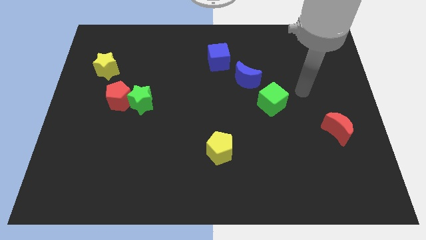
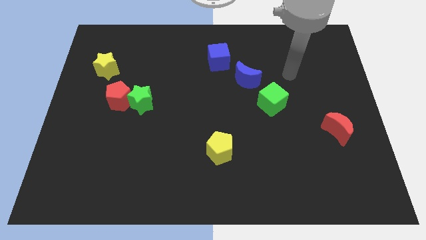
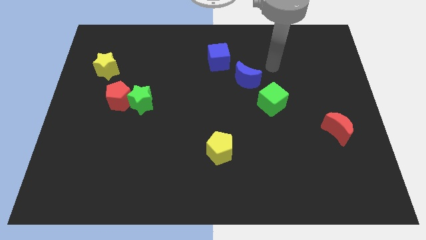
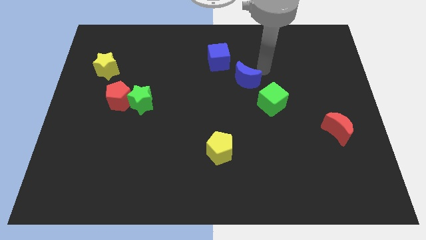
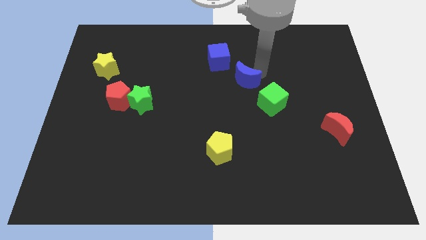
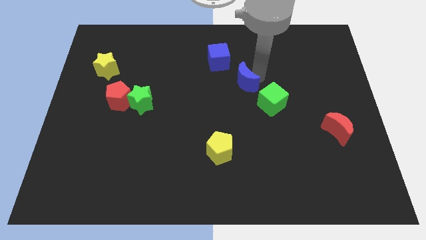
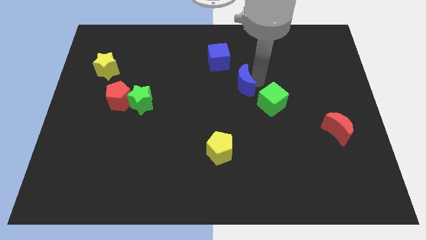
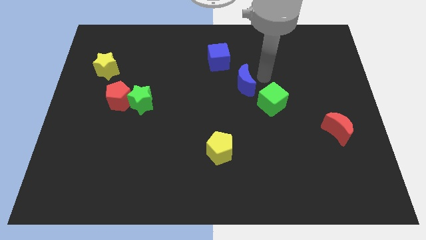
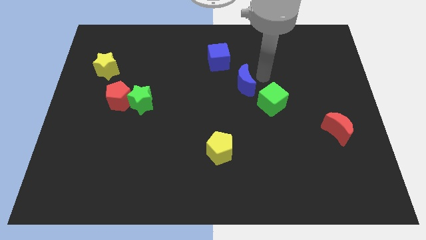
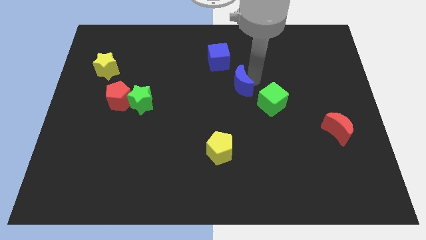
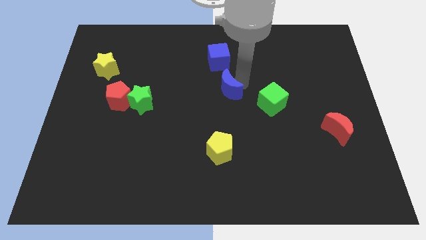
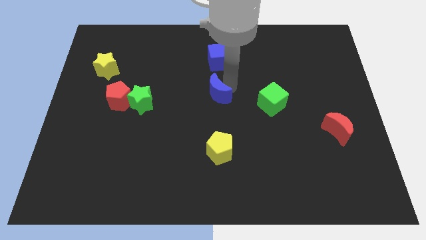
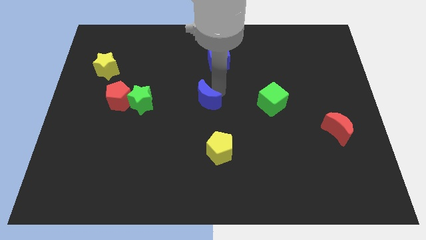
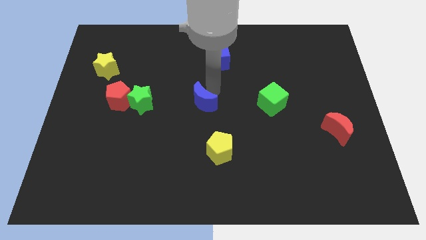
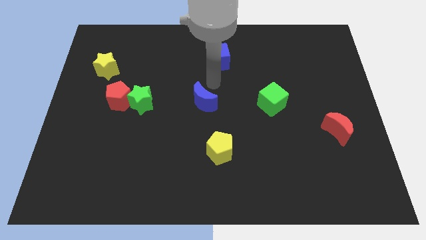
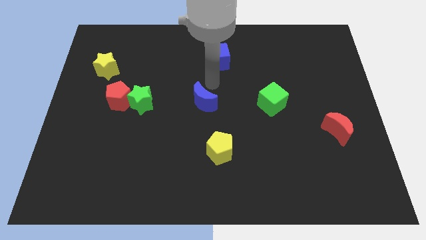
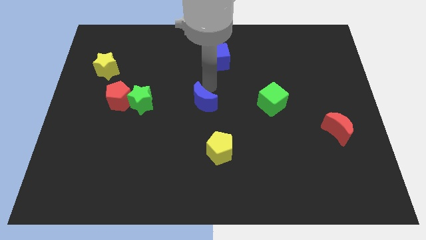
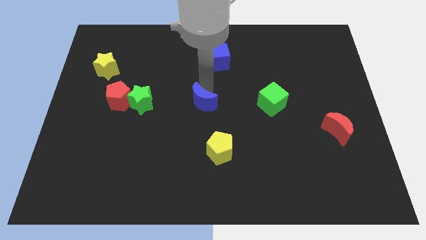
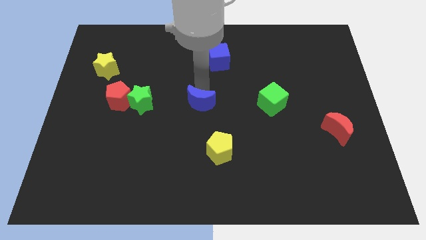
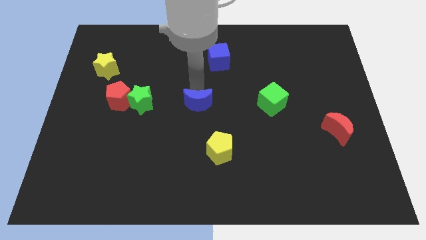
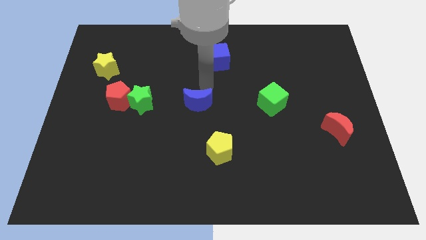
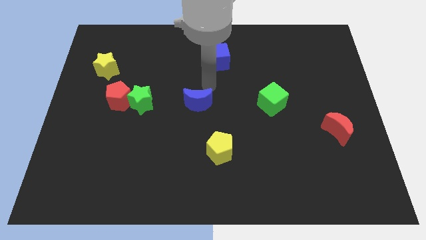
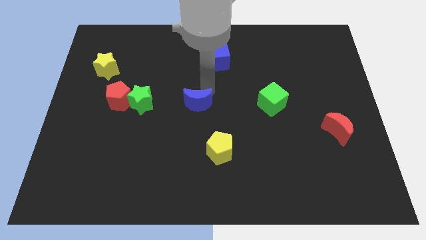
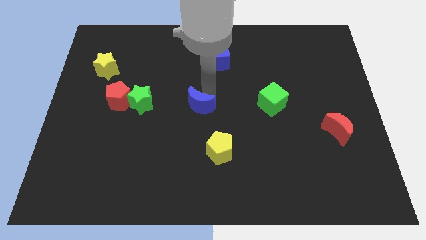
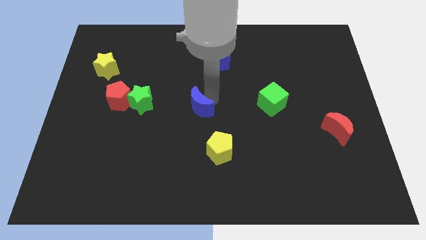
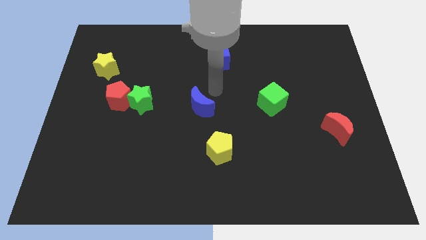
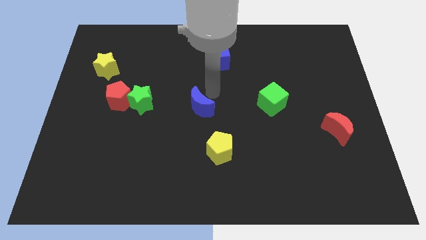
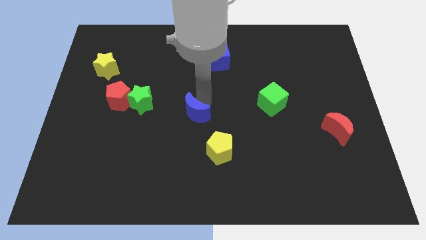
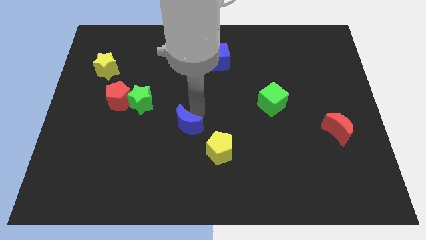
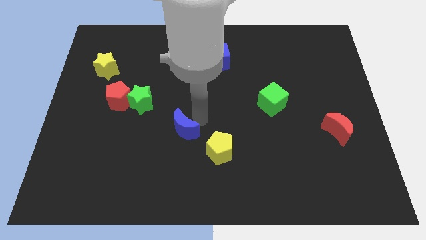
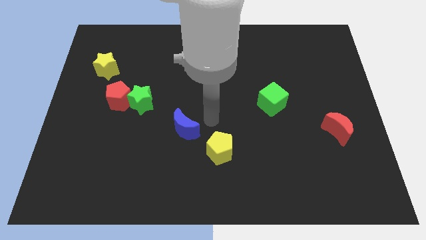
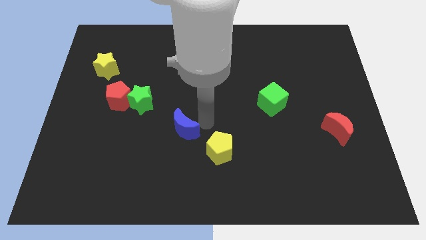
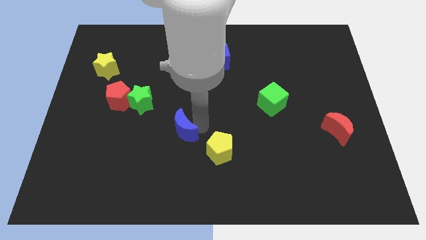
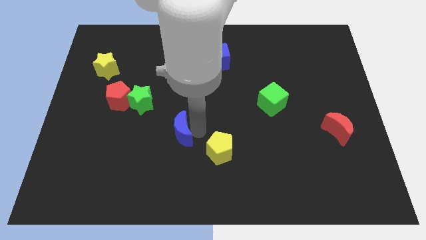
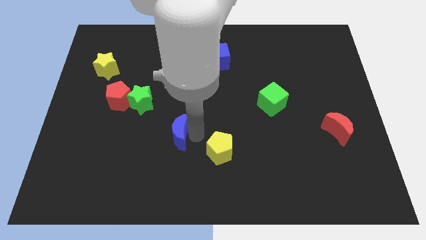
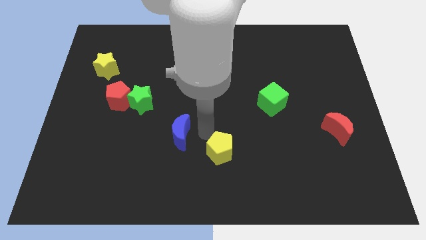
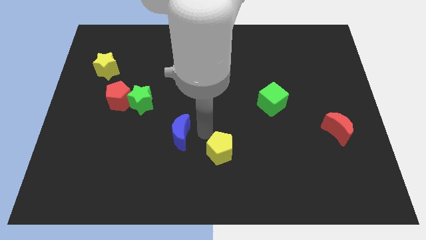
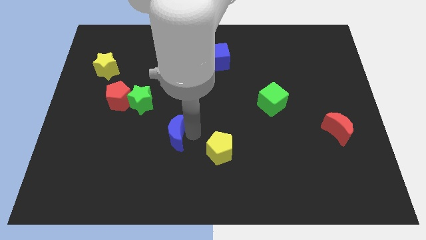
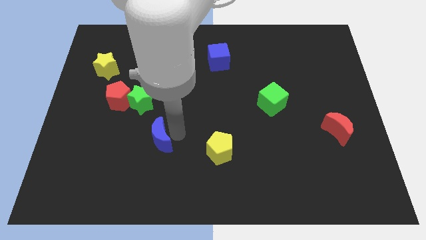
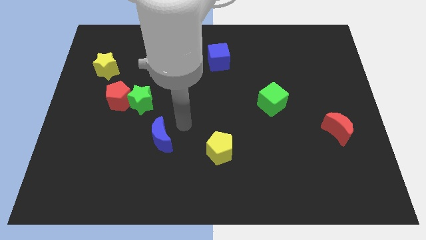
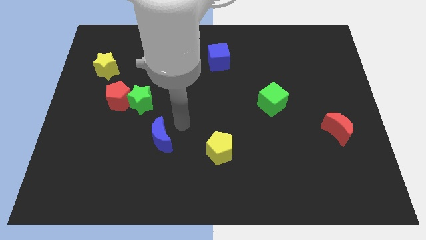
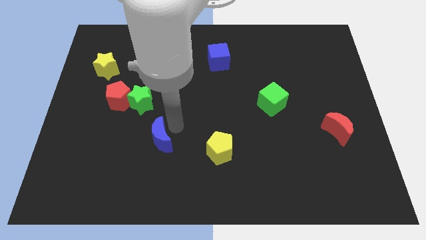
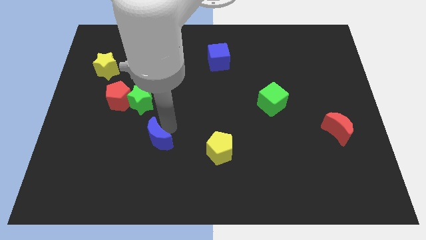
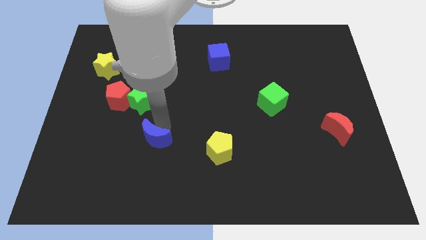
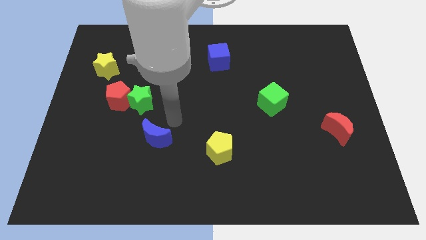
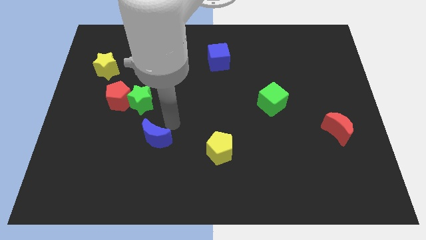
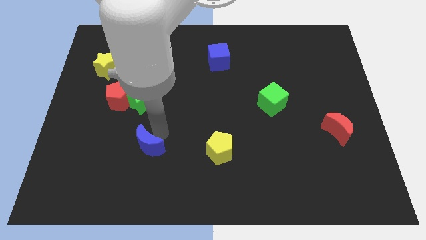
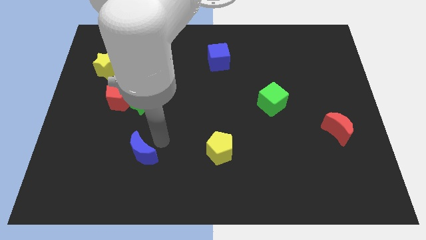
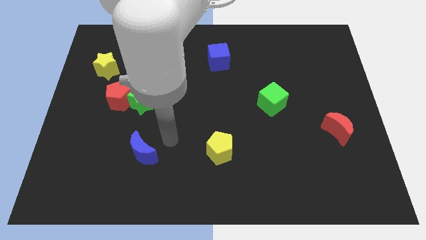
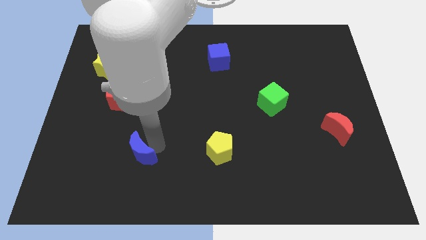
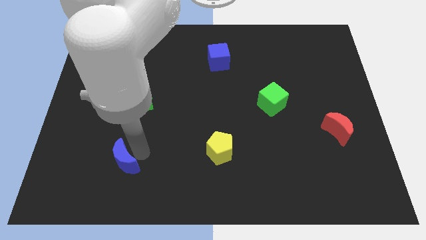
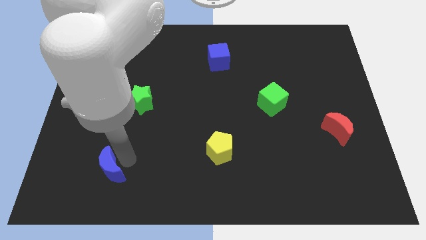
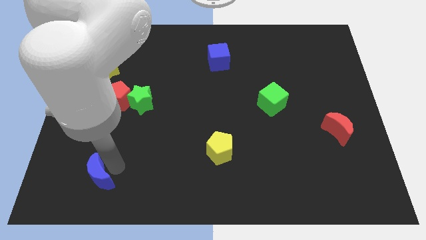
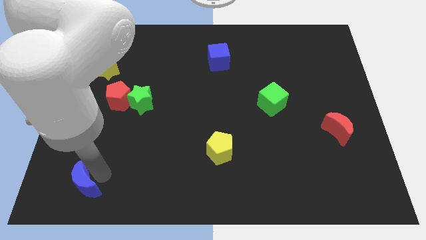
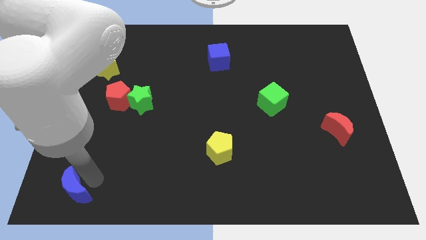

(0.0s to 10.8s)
slide the blue moon to the bottom left corner
